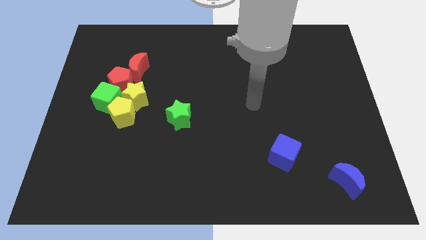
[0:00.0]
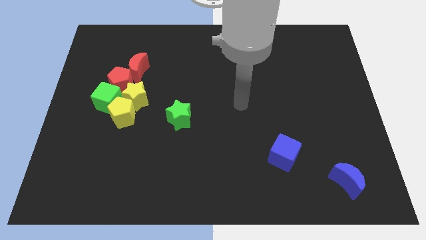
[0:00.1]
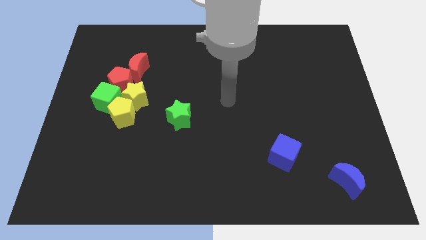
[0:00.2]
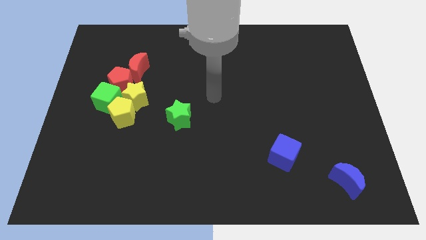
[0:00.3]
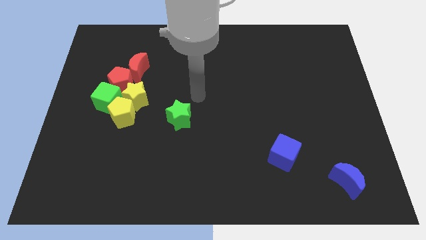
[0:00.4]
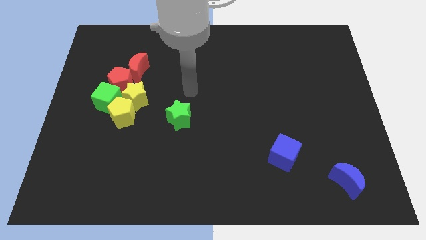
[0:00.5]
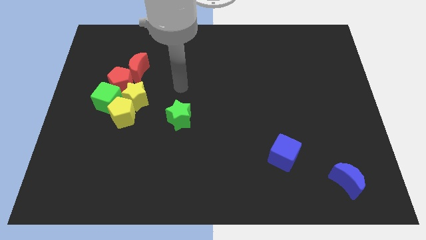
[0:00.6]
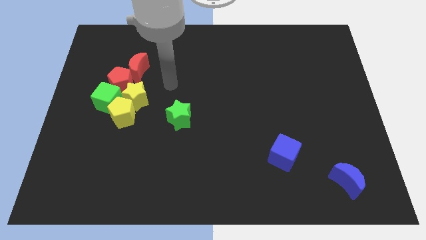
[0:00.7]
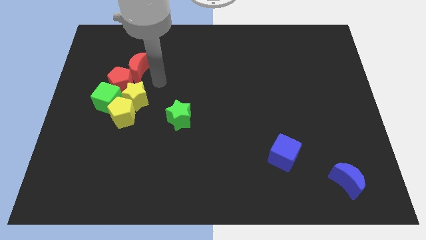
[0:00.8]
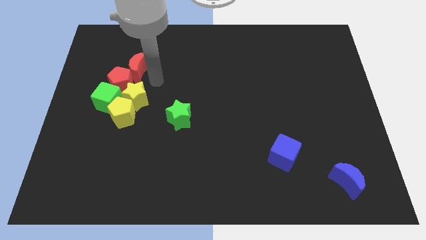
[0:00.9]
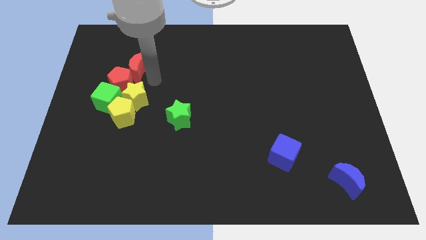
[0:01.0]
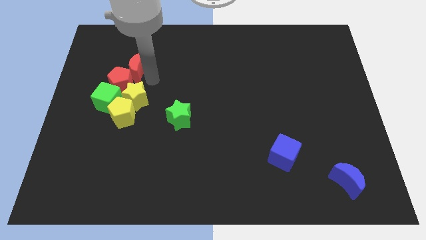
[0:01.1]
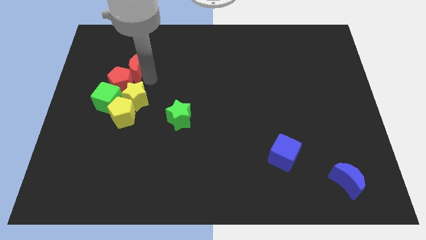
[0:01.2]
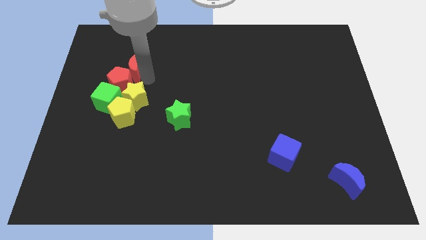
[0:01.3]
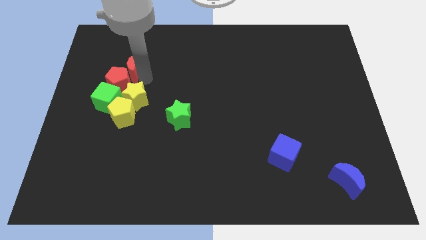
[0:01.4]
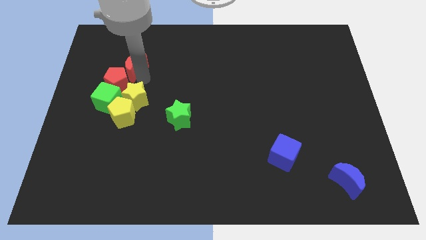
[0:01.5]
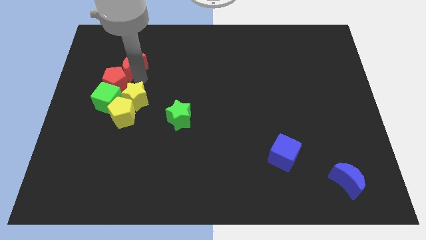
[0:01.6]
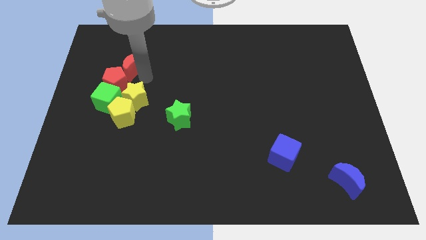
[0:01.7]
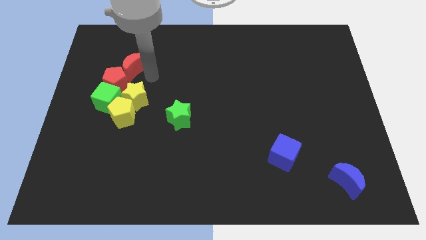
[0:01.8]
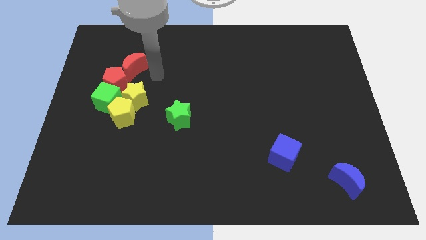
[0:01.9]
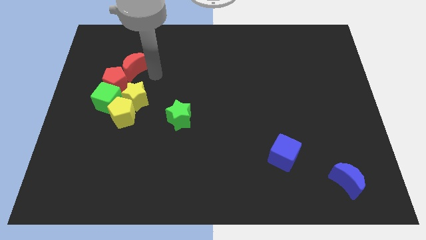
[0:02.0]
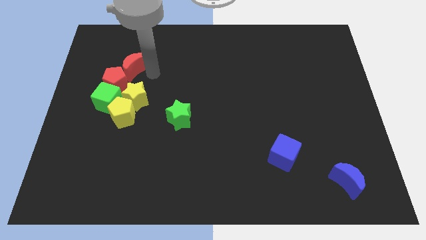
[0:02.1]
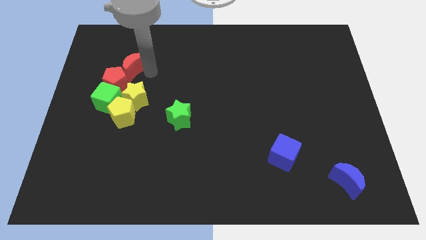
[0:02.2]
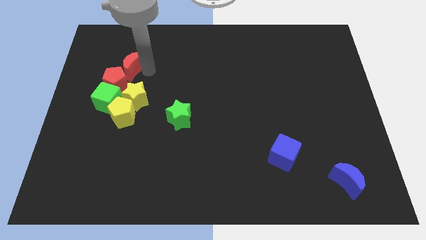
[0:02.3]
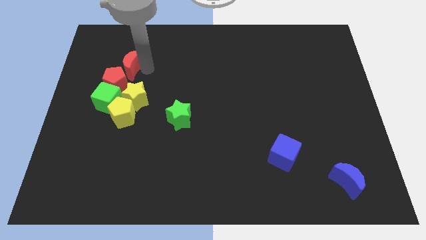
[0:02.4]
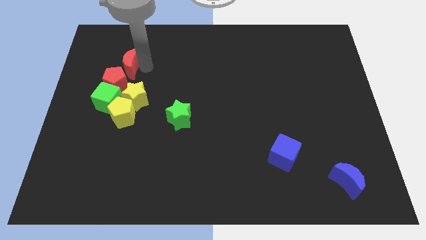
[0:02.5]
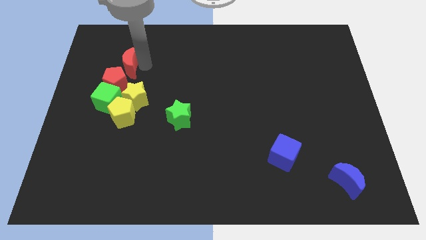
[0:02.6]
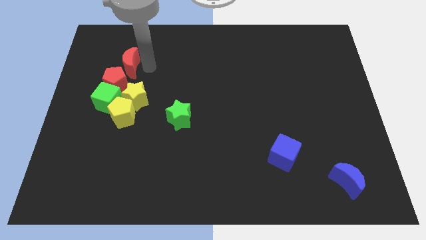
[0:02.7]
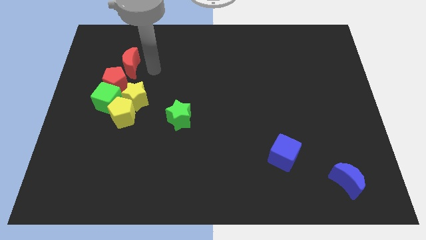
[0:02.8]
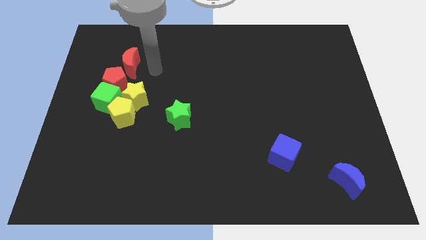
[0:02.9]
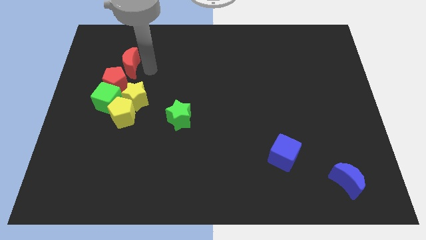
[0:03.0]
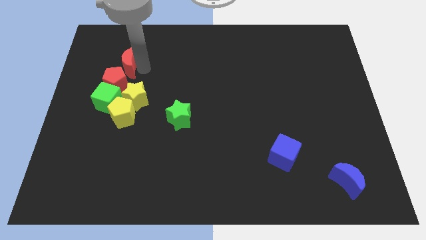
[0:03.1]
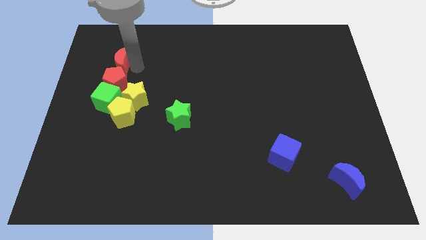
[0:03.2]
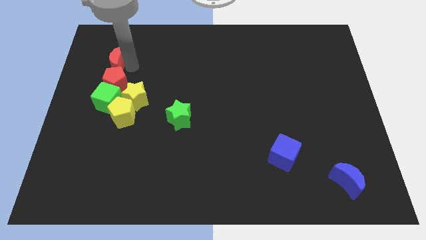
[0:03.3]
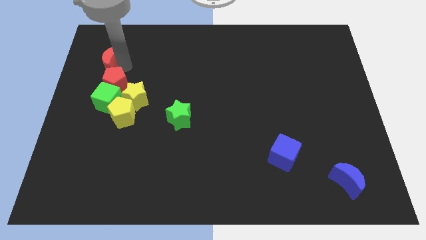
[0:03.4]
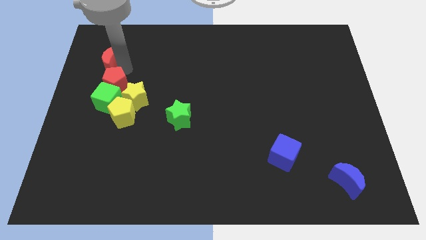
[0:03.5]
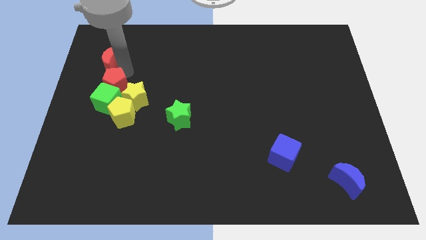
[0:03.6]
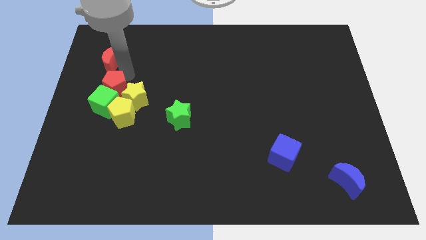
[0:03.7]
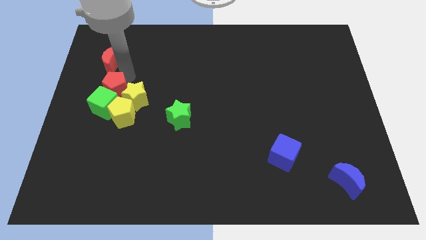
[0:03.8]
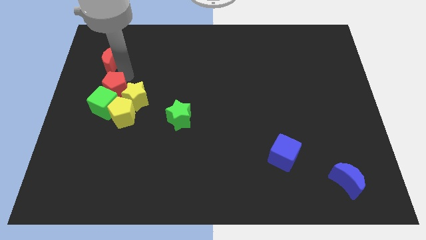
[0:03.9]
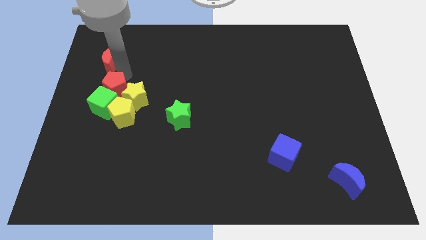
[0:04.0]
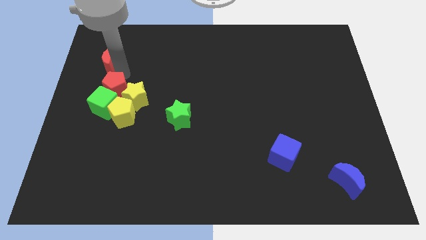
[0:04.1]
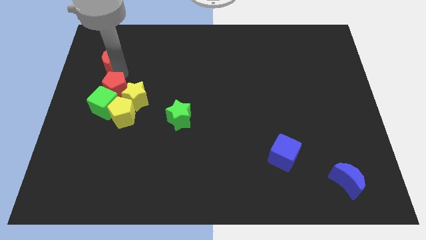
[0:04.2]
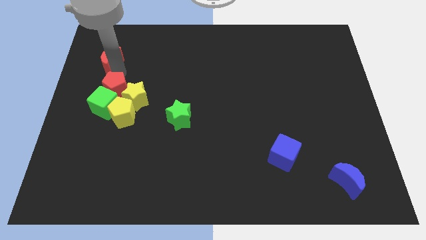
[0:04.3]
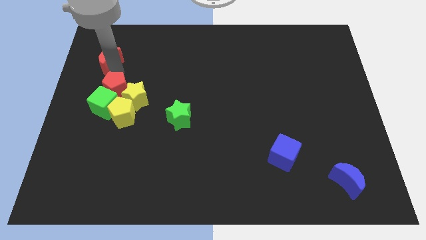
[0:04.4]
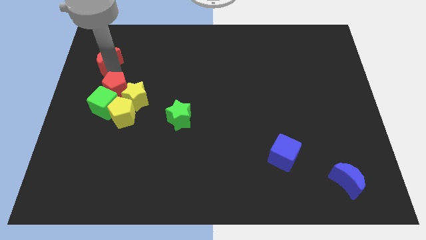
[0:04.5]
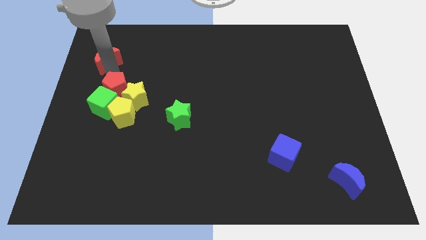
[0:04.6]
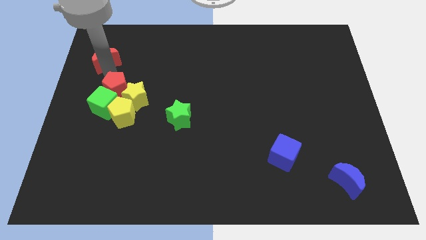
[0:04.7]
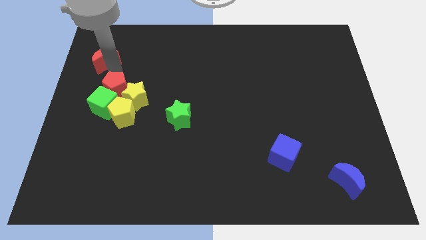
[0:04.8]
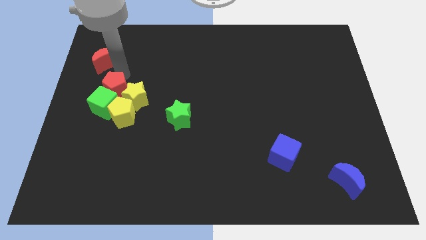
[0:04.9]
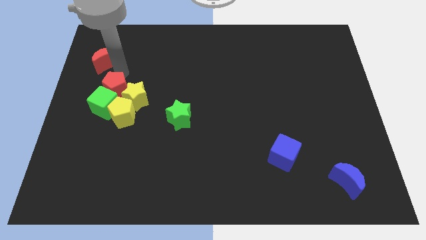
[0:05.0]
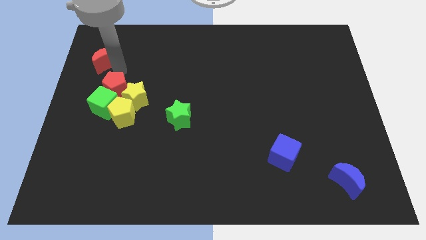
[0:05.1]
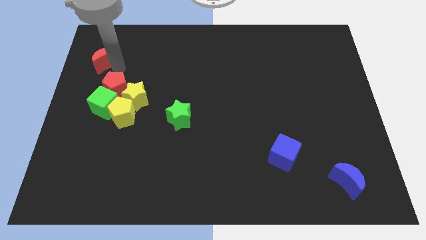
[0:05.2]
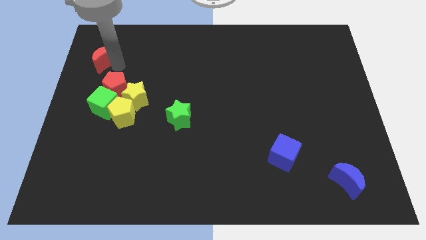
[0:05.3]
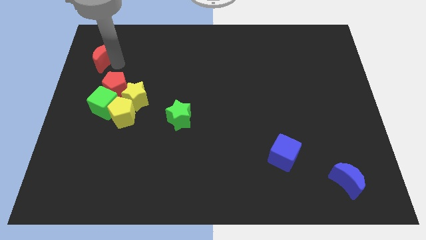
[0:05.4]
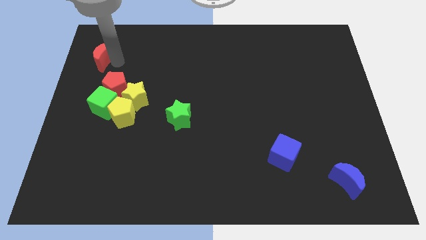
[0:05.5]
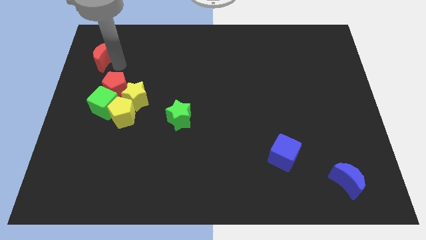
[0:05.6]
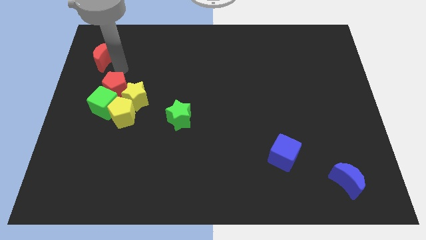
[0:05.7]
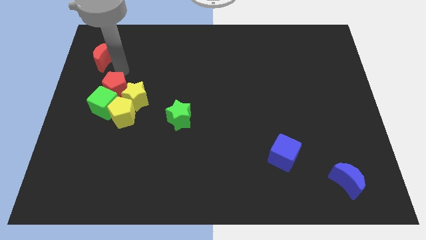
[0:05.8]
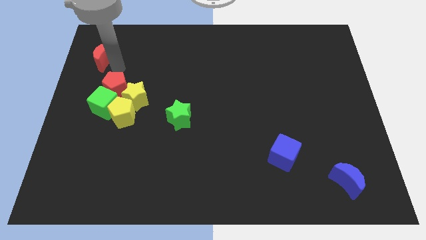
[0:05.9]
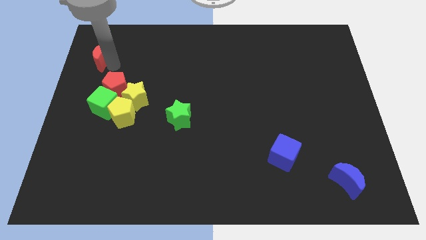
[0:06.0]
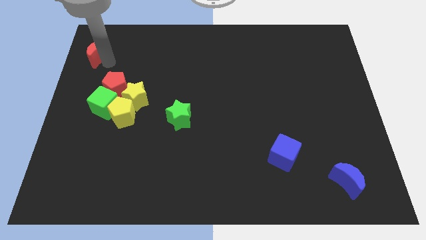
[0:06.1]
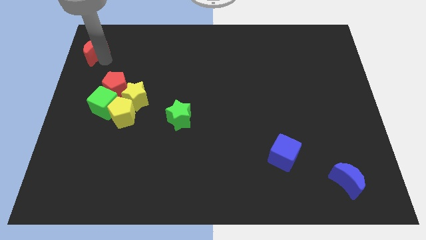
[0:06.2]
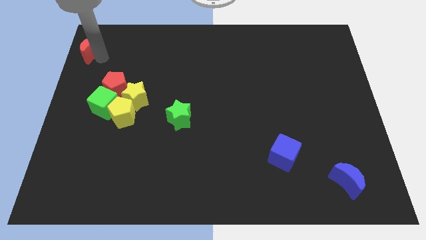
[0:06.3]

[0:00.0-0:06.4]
push the red moon to the top left
